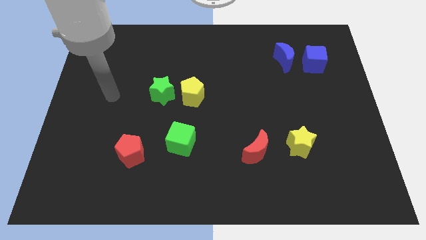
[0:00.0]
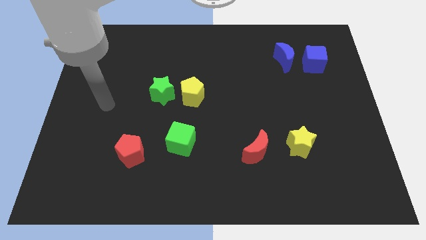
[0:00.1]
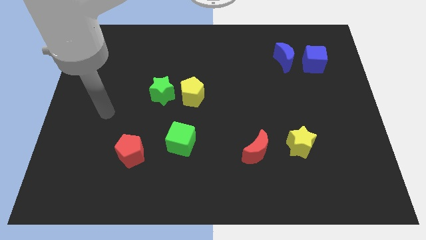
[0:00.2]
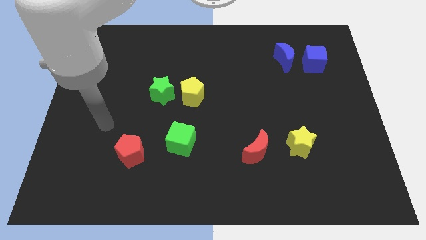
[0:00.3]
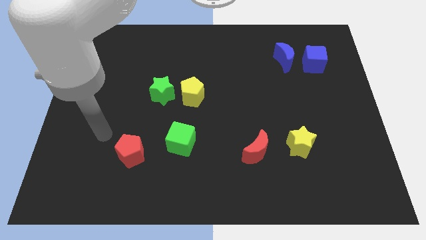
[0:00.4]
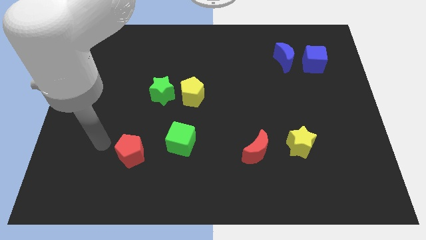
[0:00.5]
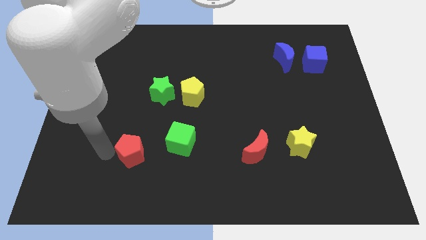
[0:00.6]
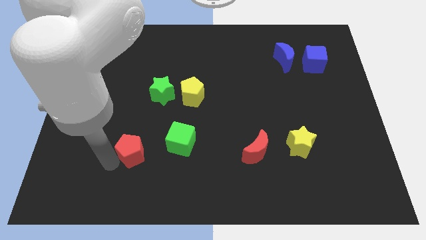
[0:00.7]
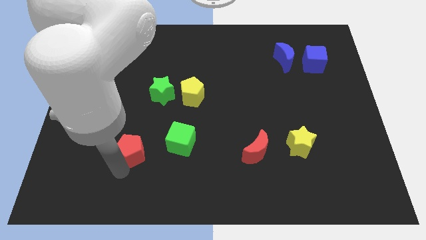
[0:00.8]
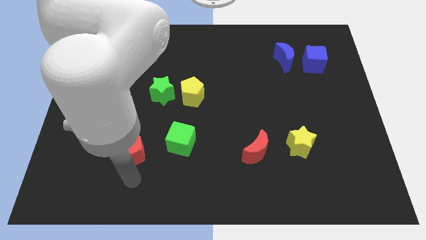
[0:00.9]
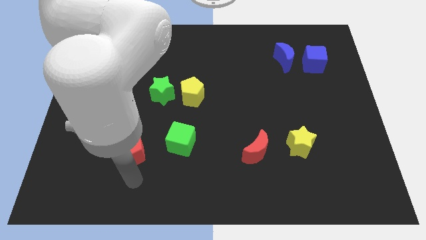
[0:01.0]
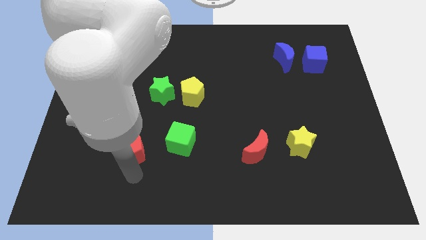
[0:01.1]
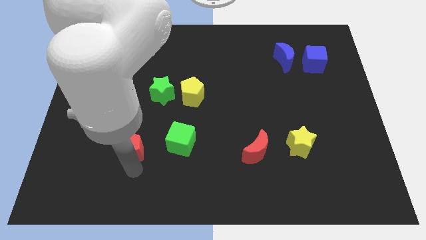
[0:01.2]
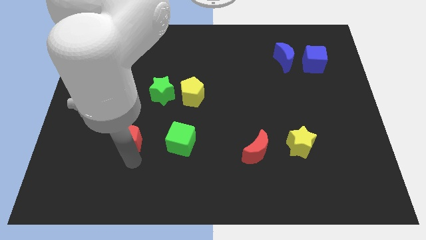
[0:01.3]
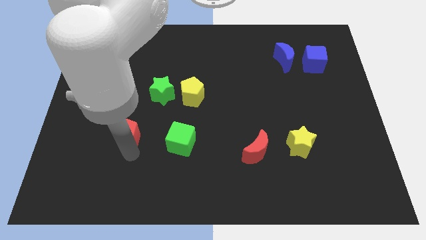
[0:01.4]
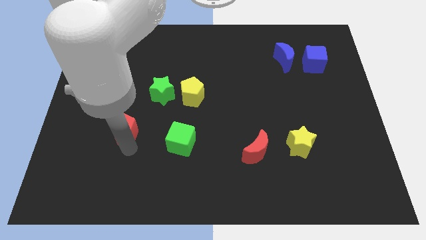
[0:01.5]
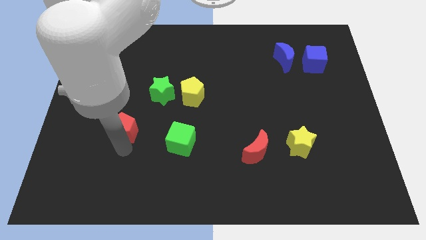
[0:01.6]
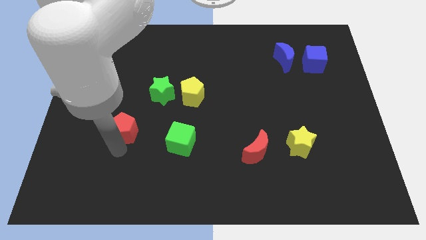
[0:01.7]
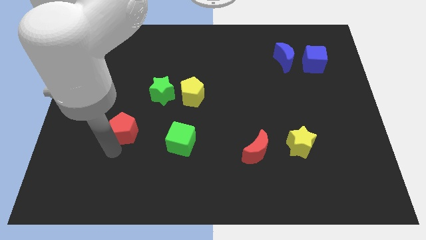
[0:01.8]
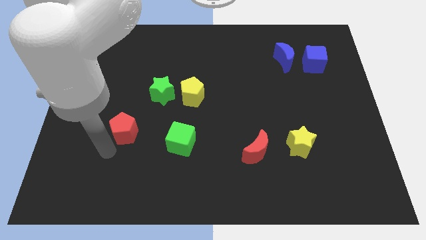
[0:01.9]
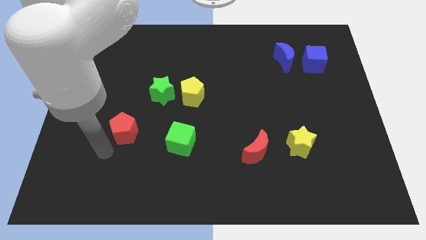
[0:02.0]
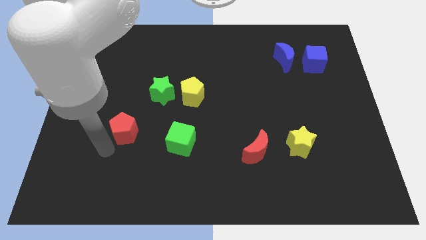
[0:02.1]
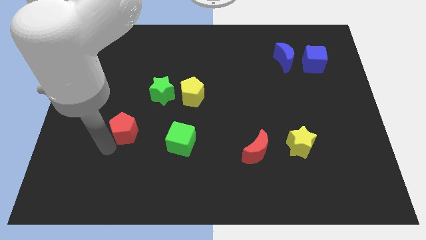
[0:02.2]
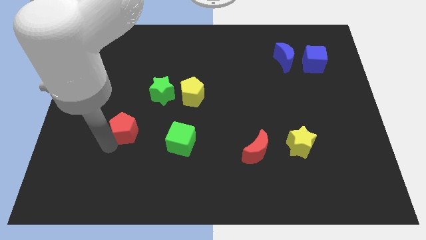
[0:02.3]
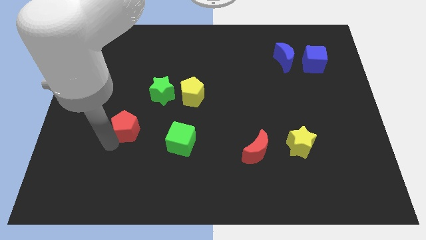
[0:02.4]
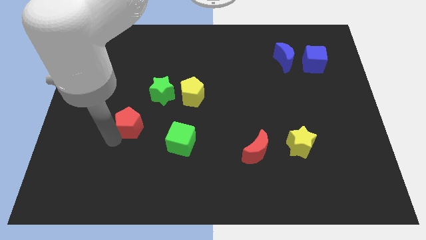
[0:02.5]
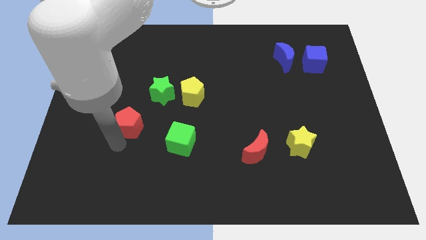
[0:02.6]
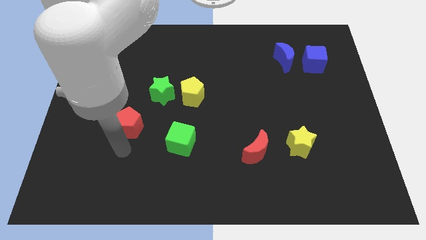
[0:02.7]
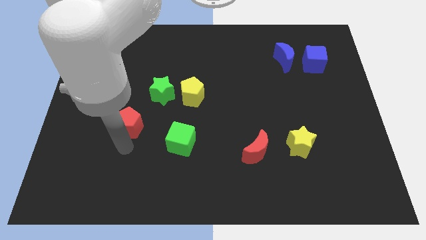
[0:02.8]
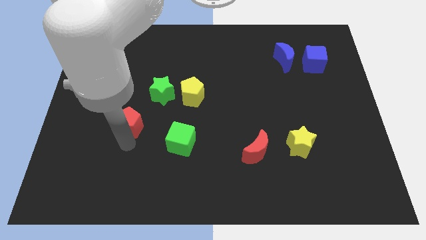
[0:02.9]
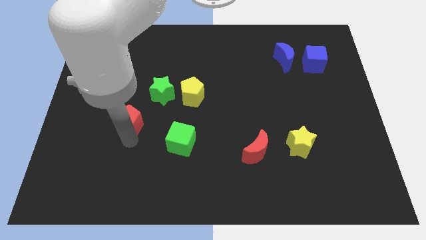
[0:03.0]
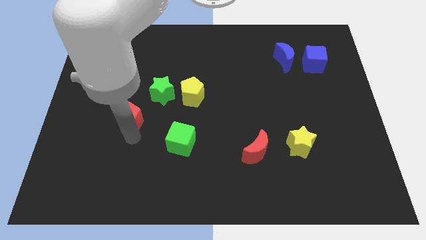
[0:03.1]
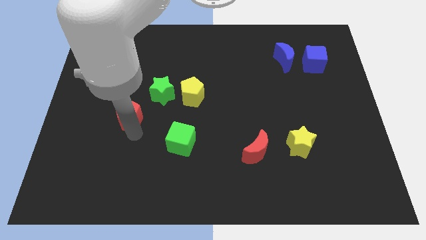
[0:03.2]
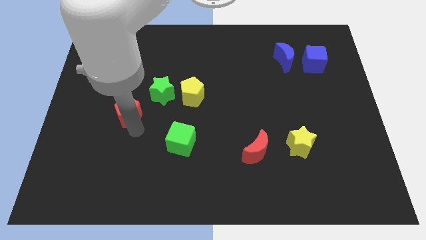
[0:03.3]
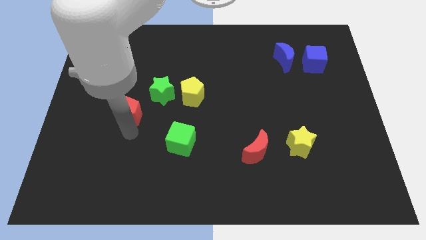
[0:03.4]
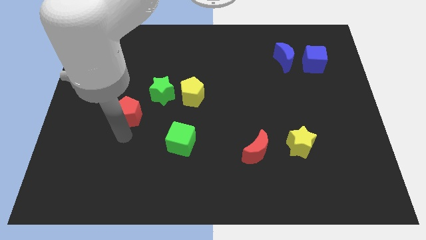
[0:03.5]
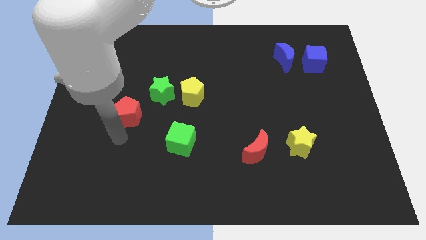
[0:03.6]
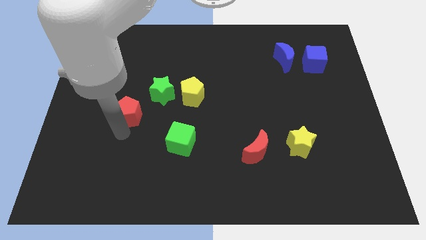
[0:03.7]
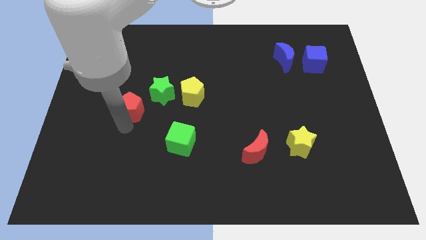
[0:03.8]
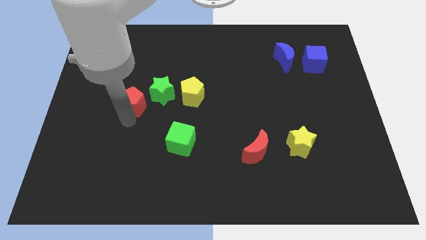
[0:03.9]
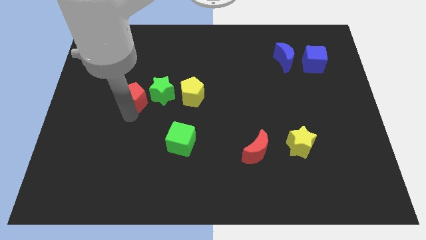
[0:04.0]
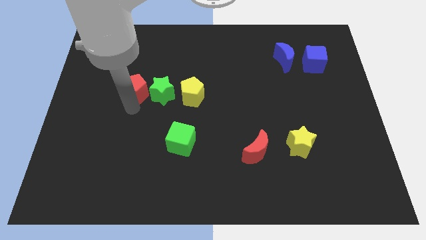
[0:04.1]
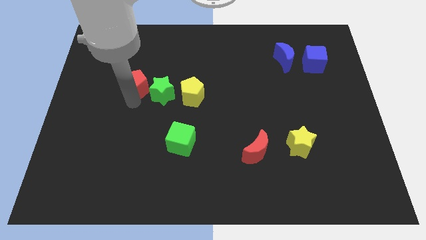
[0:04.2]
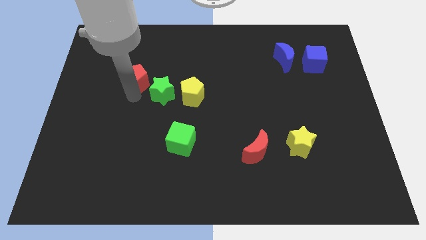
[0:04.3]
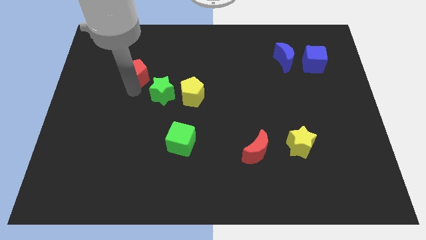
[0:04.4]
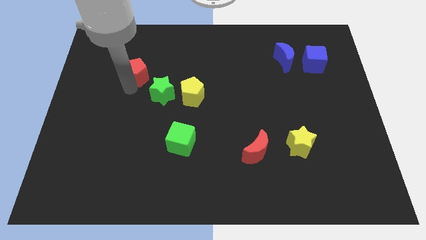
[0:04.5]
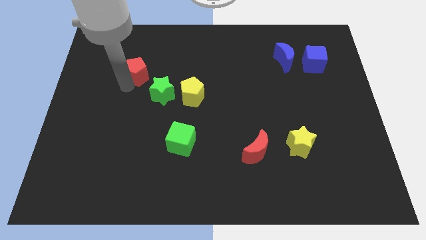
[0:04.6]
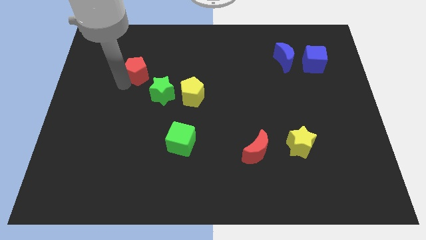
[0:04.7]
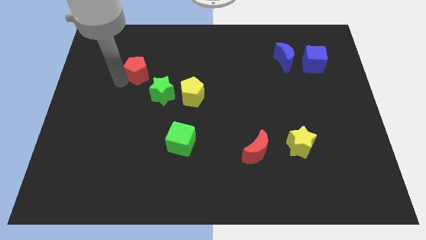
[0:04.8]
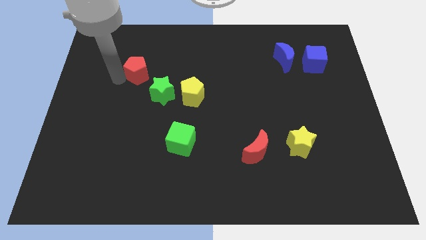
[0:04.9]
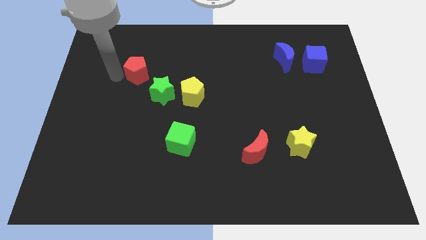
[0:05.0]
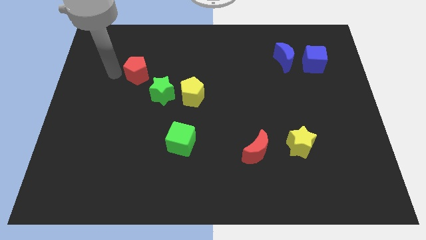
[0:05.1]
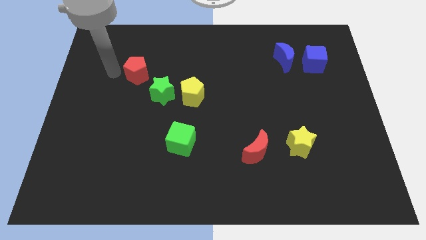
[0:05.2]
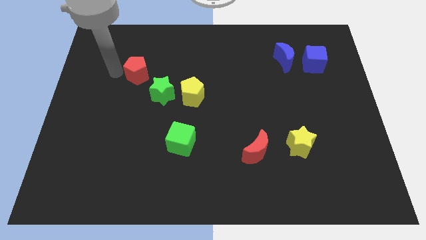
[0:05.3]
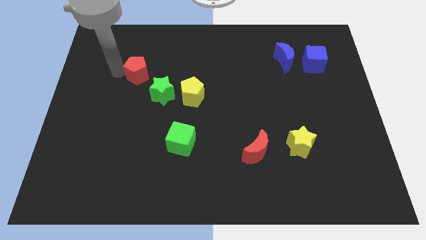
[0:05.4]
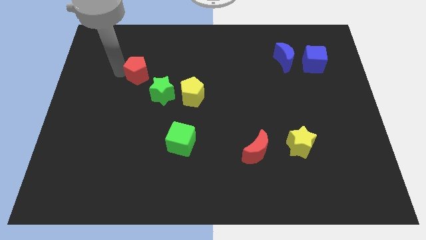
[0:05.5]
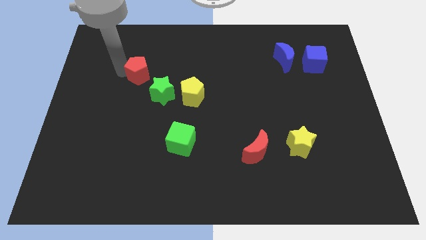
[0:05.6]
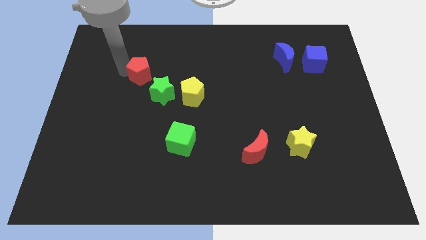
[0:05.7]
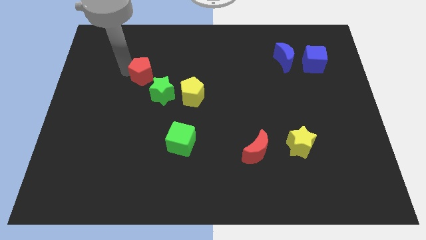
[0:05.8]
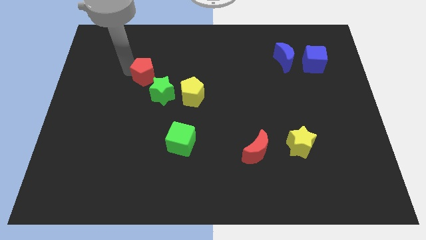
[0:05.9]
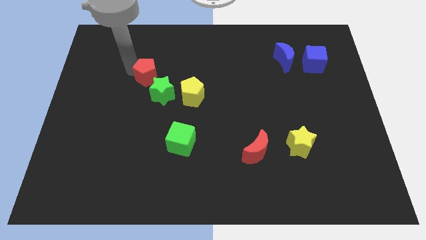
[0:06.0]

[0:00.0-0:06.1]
move the red pentagon to the top of the green star

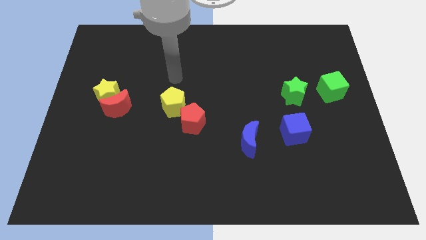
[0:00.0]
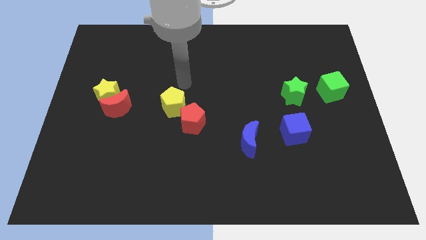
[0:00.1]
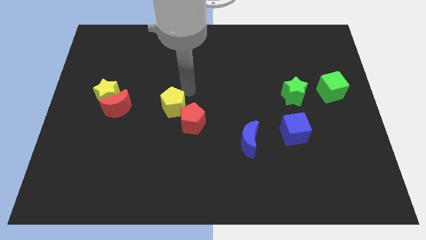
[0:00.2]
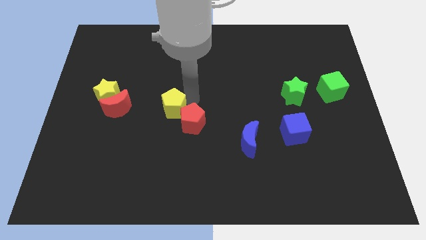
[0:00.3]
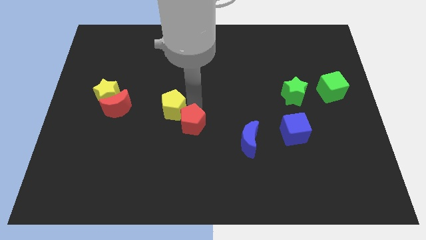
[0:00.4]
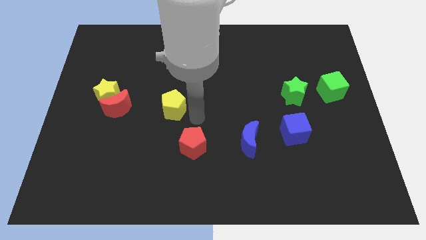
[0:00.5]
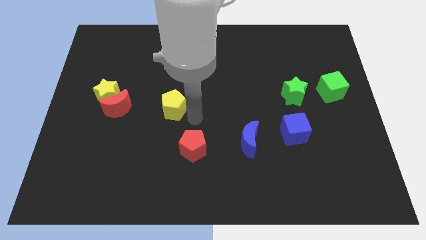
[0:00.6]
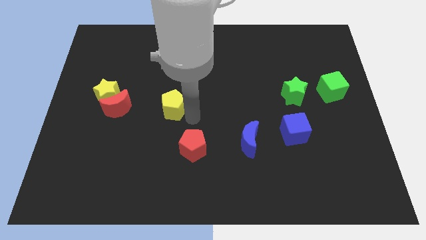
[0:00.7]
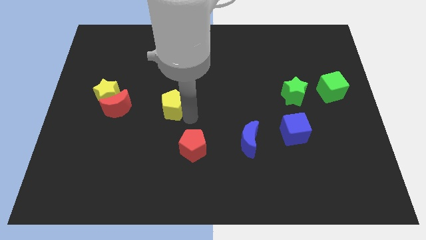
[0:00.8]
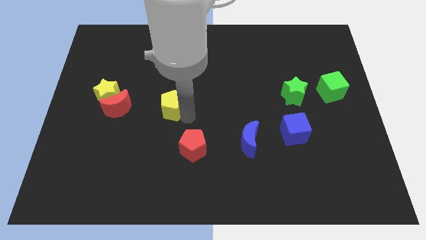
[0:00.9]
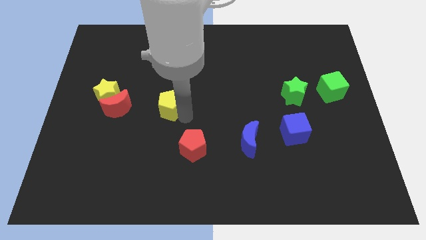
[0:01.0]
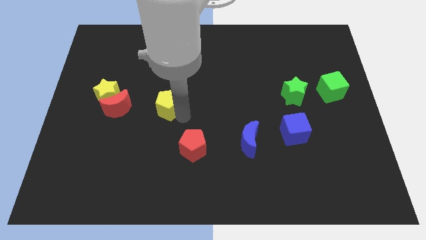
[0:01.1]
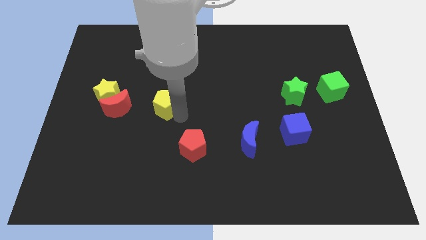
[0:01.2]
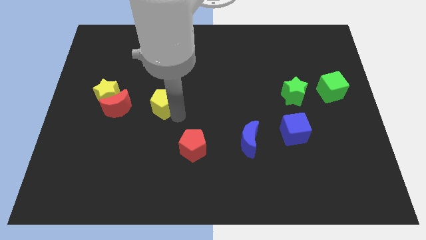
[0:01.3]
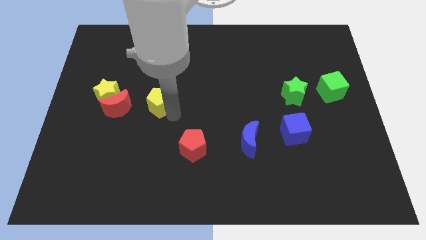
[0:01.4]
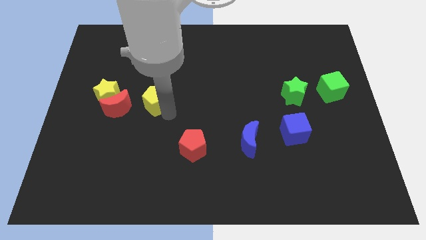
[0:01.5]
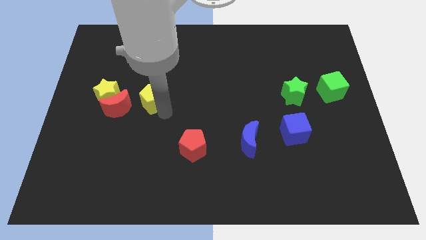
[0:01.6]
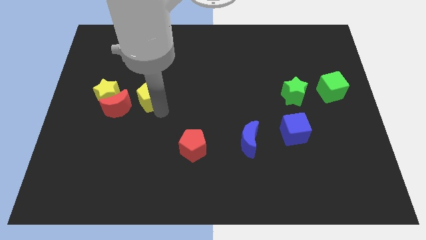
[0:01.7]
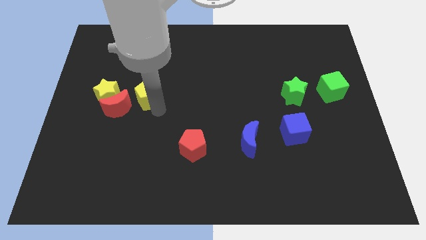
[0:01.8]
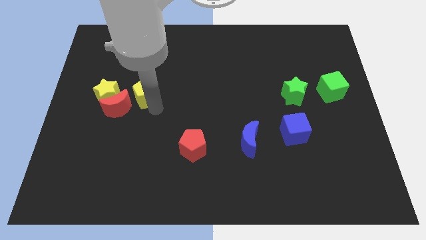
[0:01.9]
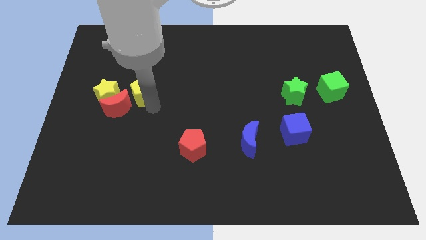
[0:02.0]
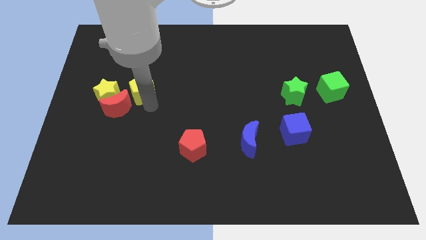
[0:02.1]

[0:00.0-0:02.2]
put the yellow pentagon to the top right side of the yellow star
